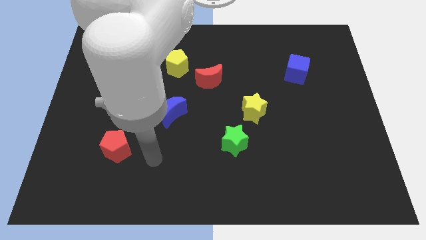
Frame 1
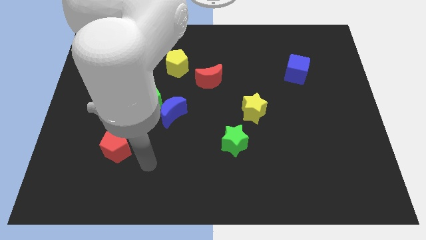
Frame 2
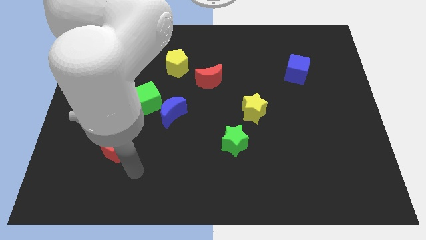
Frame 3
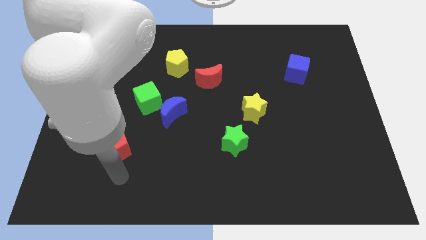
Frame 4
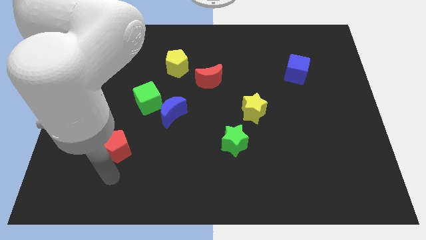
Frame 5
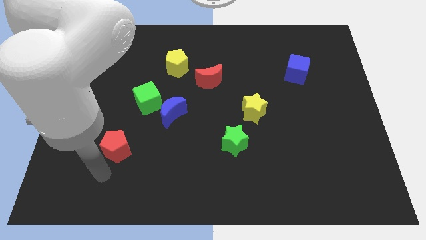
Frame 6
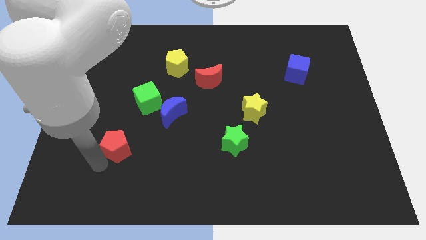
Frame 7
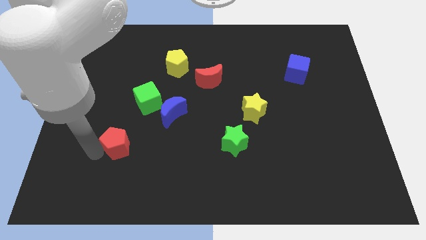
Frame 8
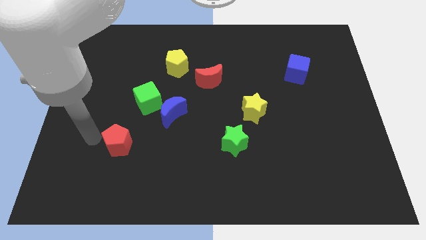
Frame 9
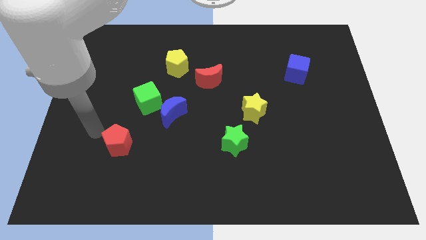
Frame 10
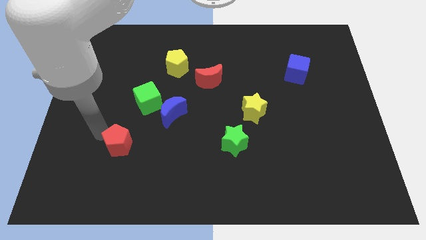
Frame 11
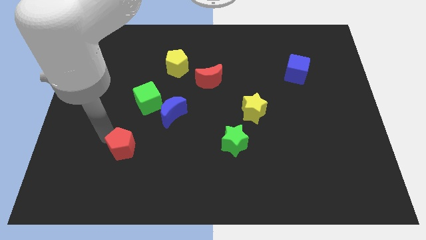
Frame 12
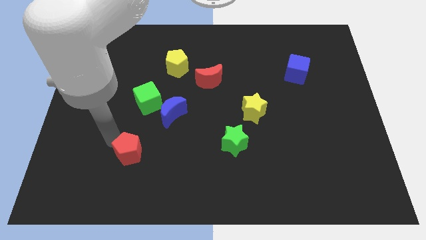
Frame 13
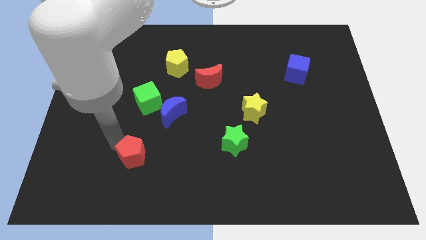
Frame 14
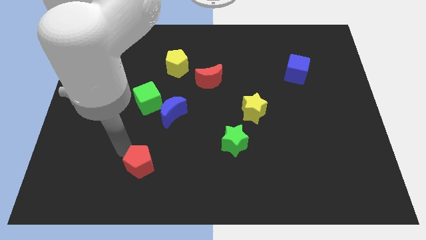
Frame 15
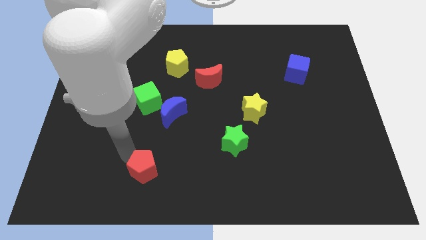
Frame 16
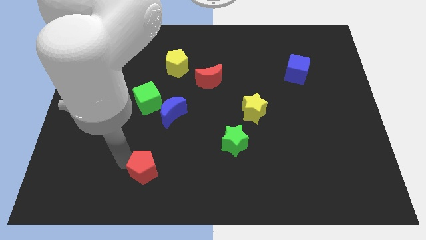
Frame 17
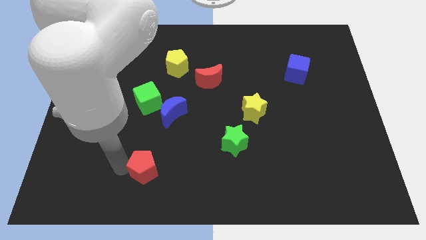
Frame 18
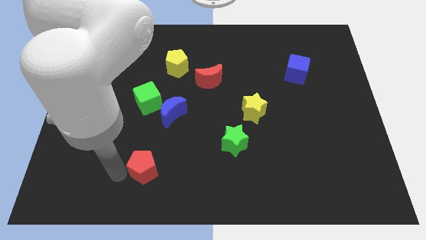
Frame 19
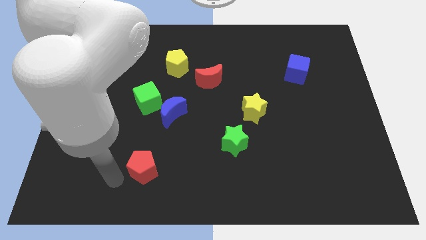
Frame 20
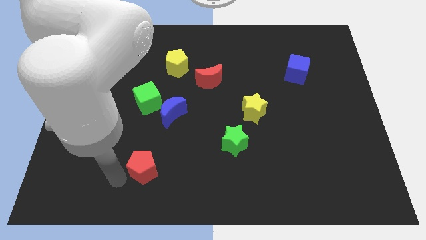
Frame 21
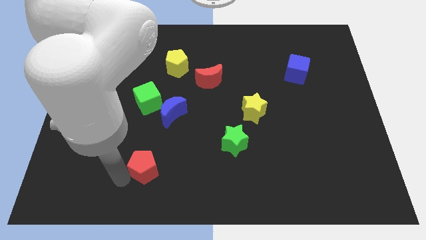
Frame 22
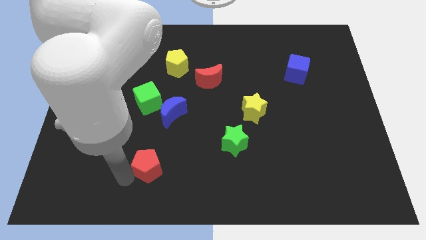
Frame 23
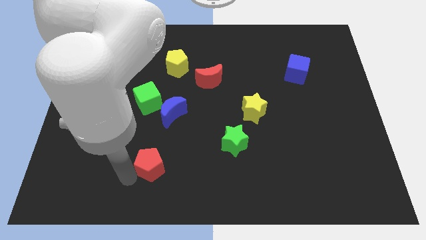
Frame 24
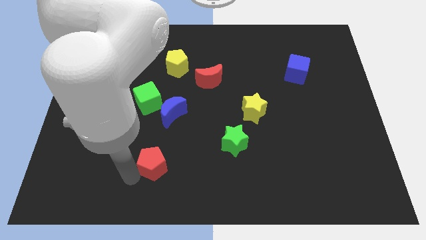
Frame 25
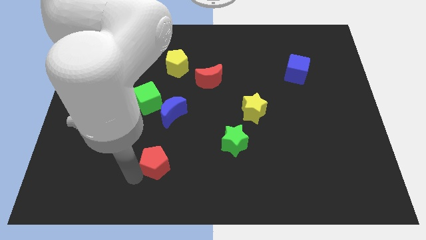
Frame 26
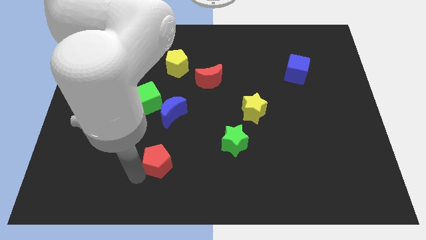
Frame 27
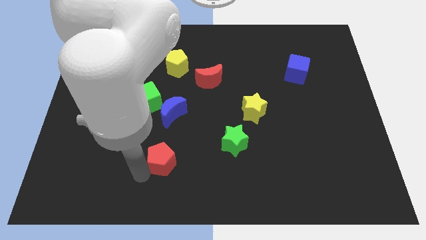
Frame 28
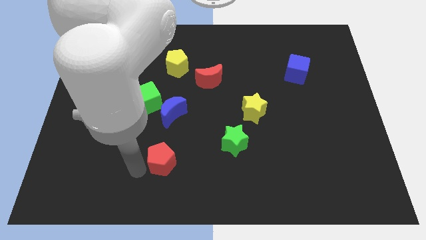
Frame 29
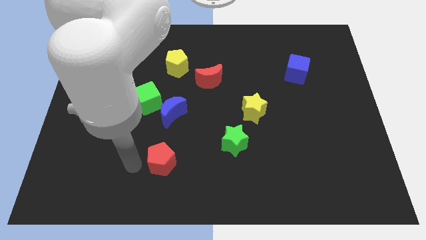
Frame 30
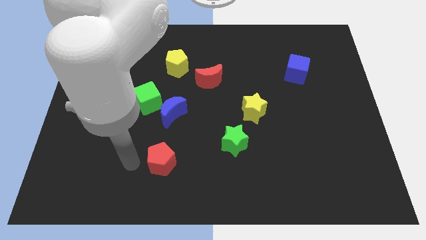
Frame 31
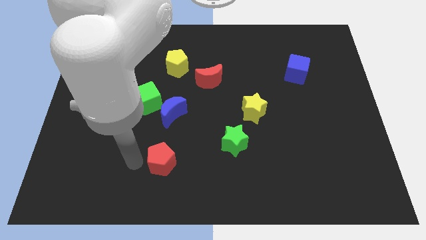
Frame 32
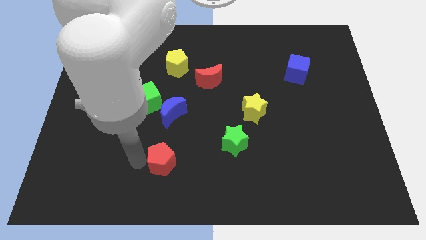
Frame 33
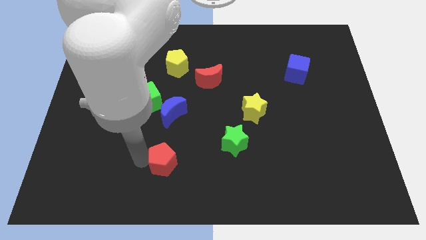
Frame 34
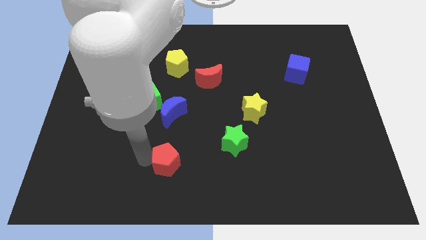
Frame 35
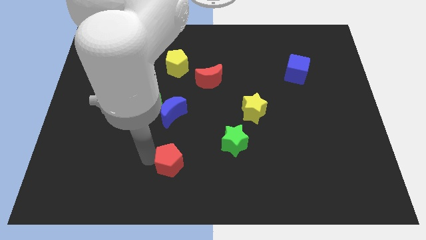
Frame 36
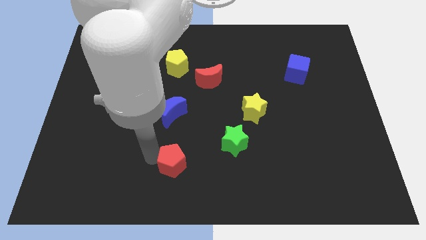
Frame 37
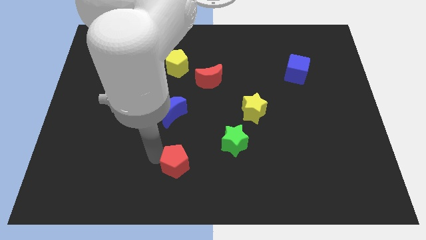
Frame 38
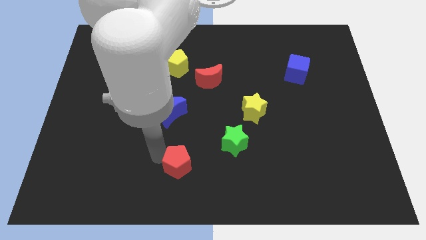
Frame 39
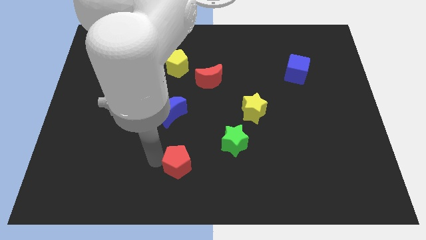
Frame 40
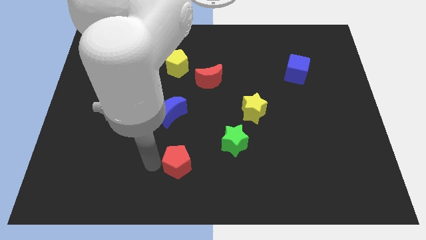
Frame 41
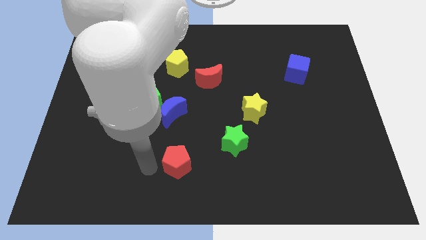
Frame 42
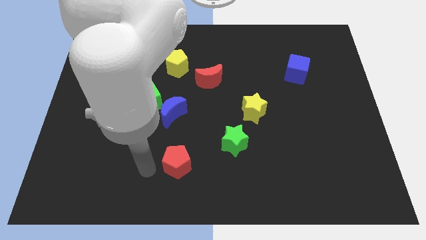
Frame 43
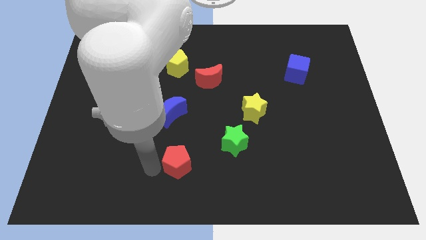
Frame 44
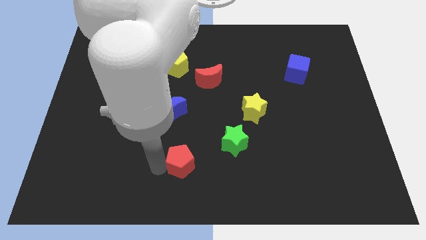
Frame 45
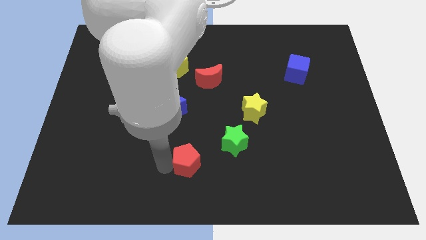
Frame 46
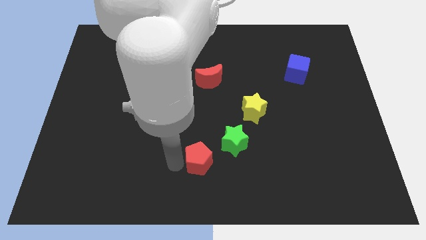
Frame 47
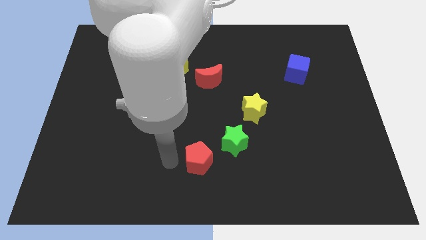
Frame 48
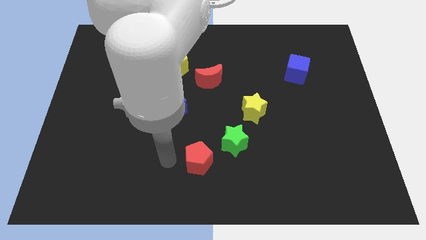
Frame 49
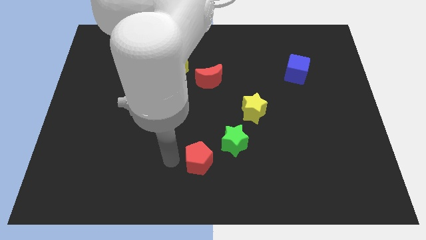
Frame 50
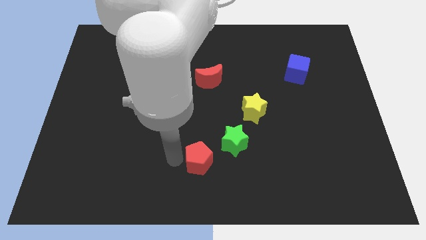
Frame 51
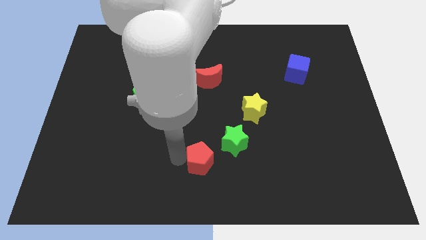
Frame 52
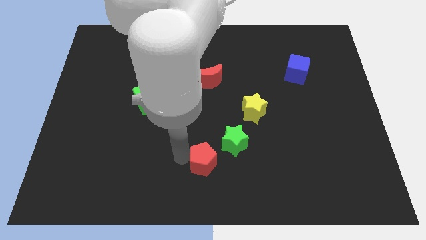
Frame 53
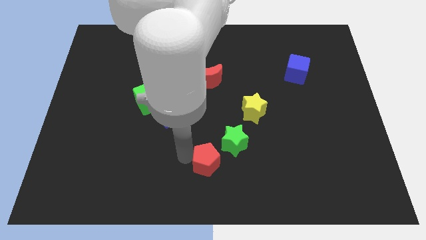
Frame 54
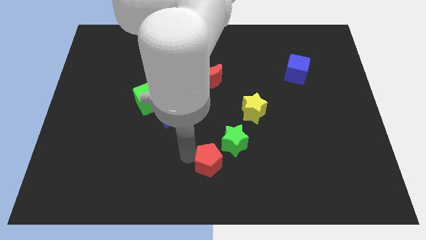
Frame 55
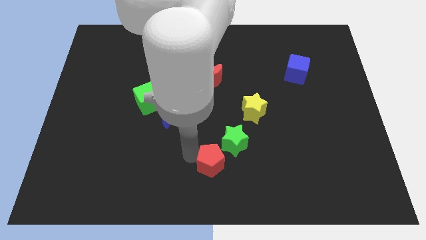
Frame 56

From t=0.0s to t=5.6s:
push the red pentagon to the right

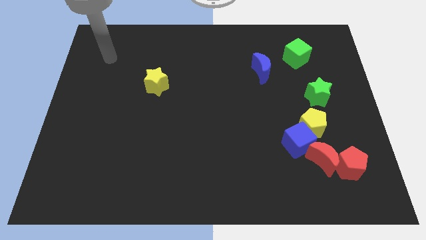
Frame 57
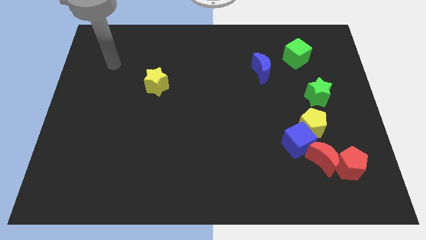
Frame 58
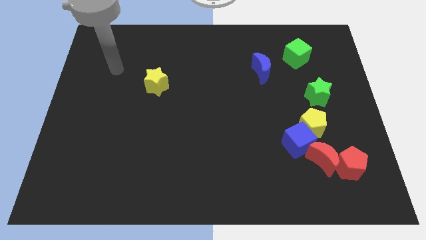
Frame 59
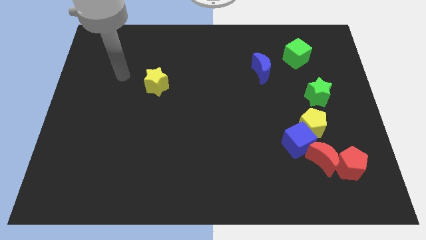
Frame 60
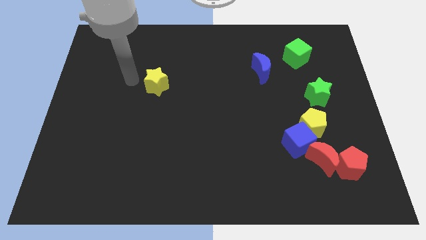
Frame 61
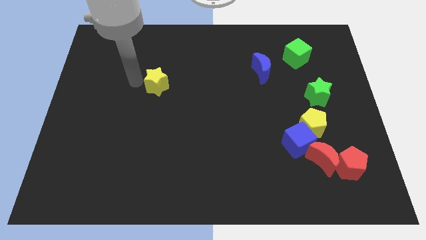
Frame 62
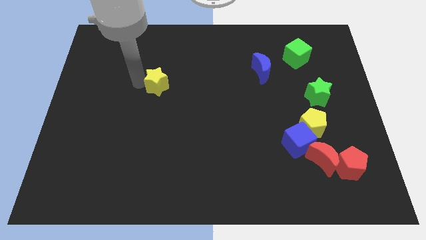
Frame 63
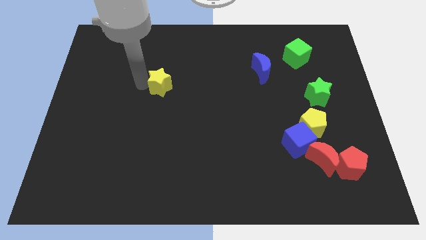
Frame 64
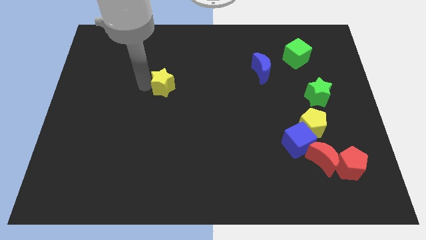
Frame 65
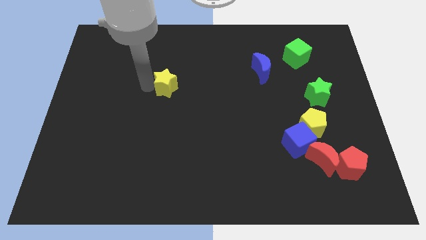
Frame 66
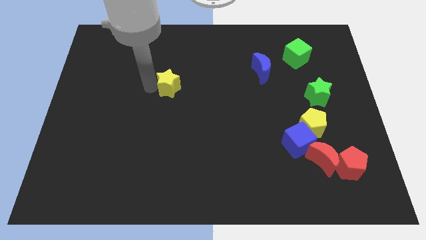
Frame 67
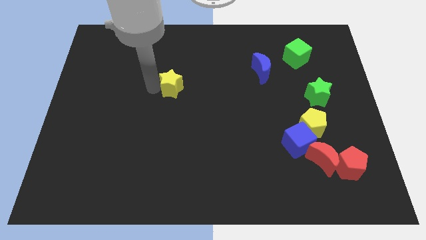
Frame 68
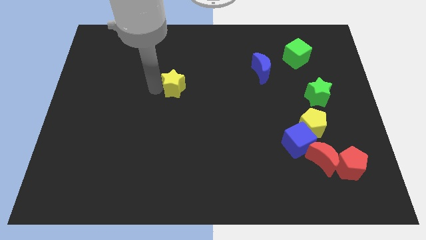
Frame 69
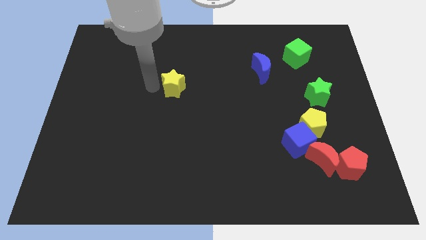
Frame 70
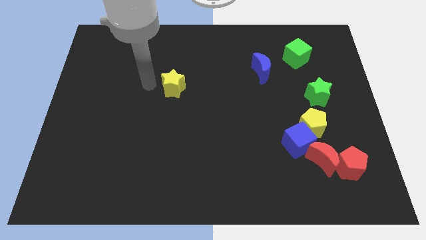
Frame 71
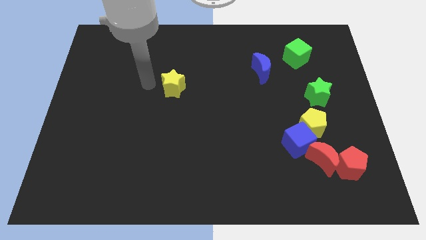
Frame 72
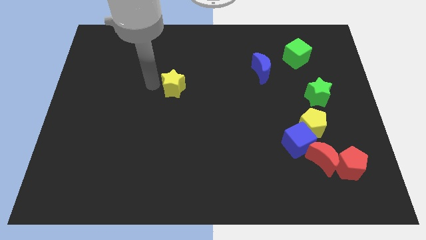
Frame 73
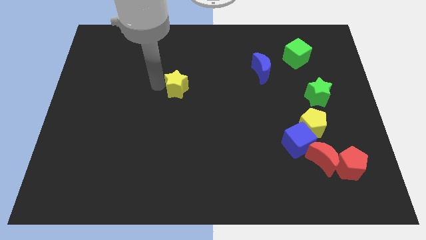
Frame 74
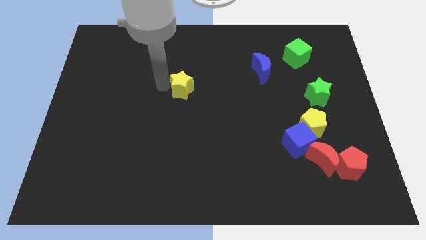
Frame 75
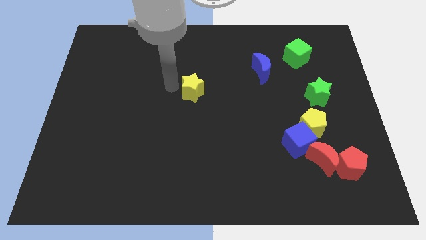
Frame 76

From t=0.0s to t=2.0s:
slide the yellow star a little bit right

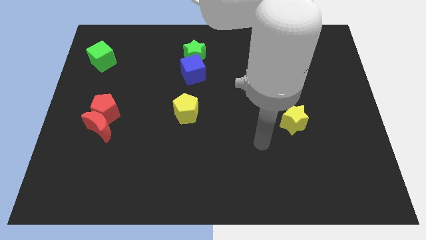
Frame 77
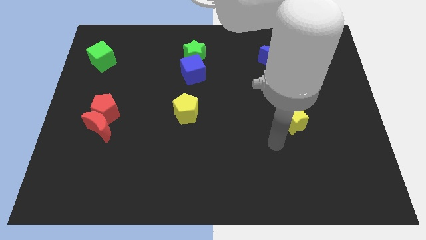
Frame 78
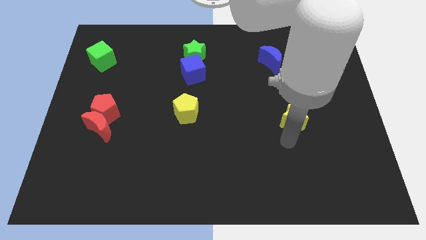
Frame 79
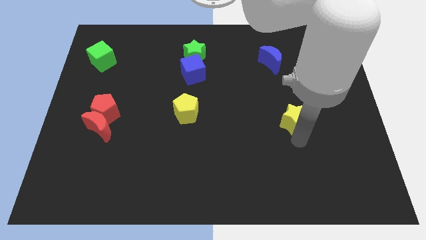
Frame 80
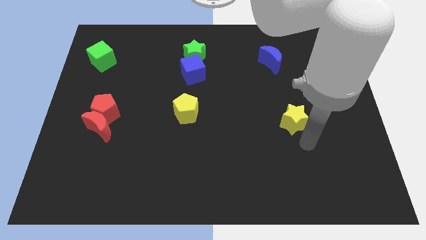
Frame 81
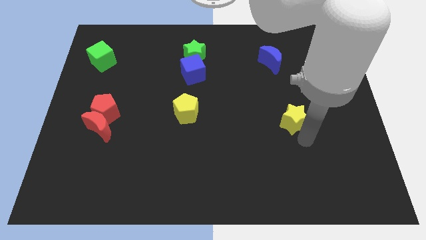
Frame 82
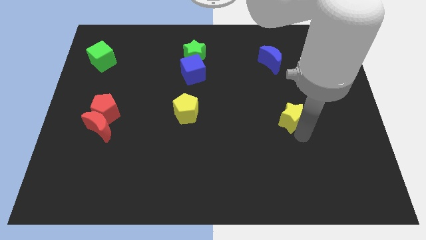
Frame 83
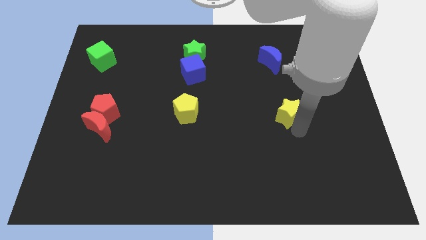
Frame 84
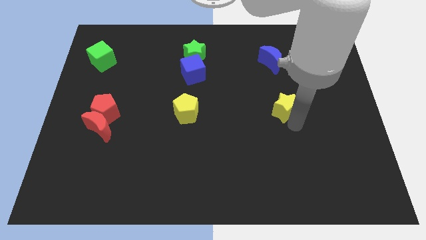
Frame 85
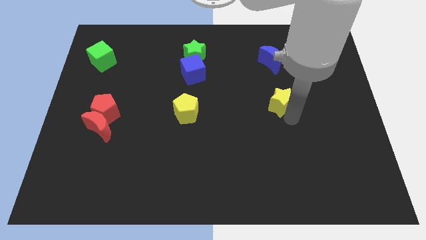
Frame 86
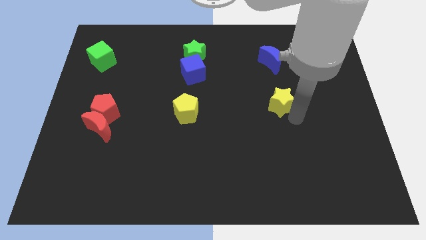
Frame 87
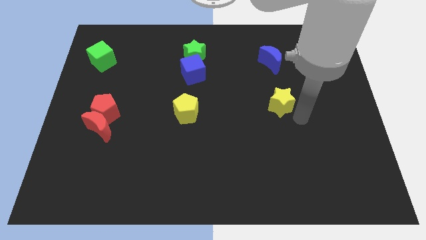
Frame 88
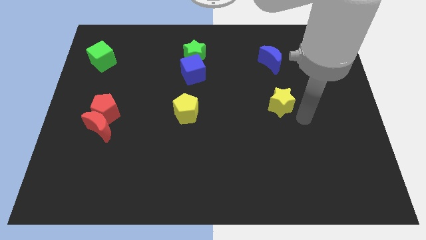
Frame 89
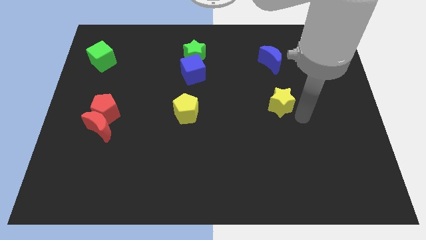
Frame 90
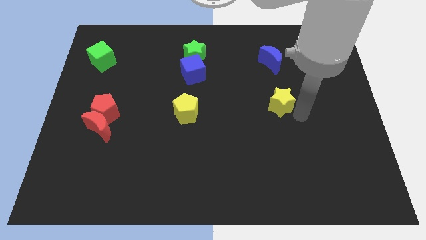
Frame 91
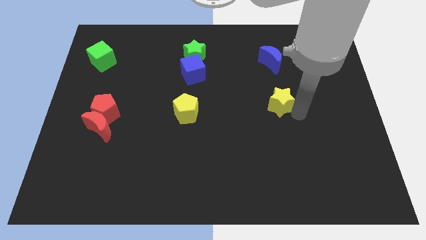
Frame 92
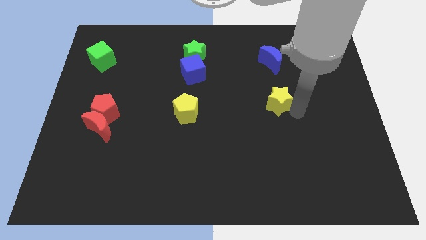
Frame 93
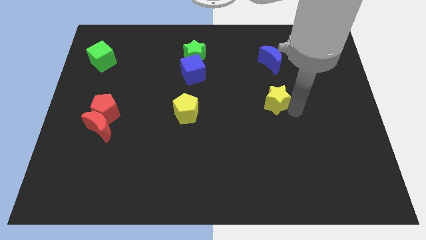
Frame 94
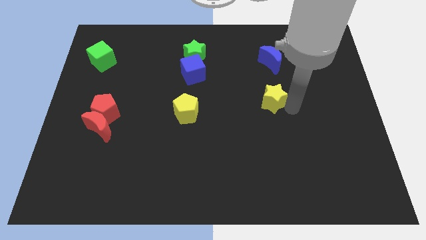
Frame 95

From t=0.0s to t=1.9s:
slide the yellow star upwards and left diagonally a little
